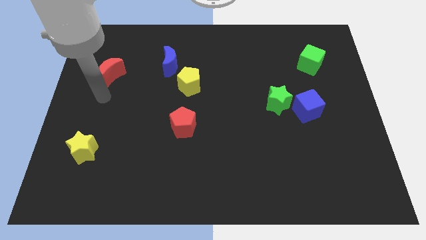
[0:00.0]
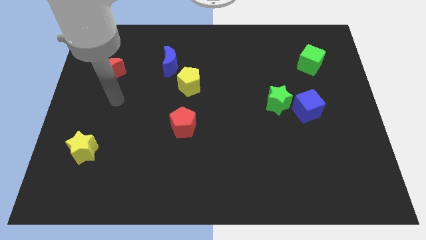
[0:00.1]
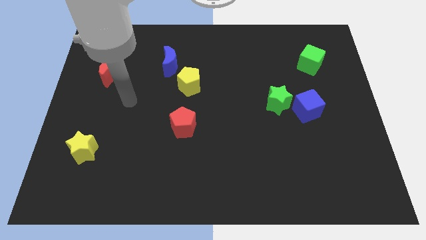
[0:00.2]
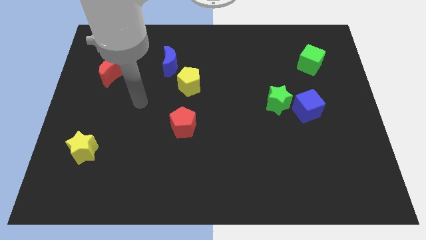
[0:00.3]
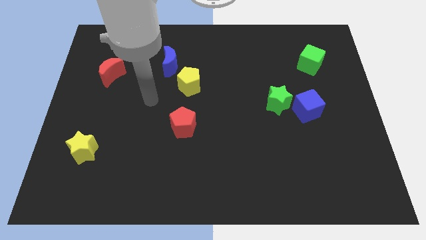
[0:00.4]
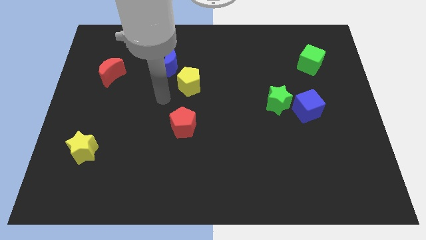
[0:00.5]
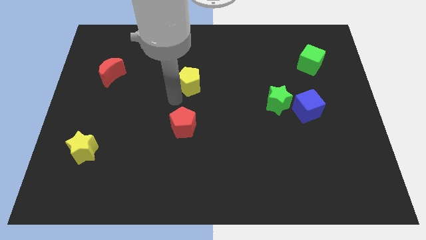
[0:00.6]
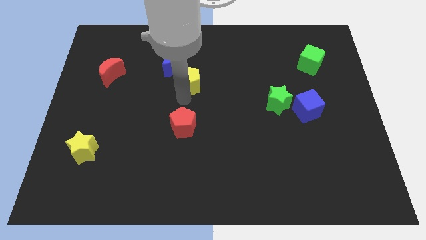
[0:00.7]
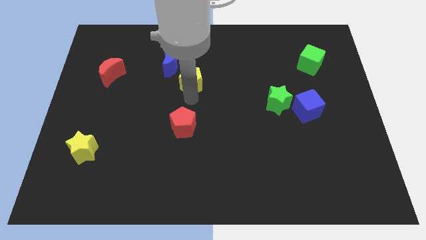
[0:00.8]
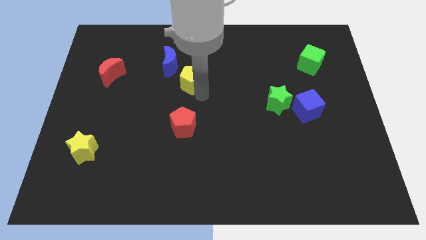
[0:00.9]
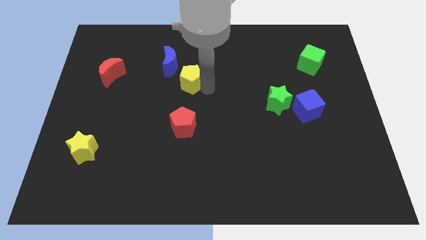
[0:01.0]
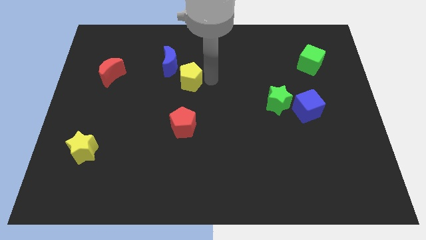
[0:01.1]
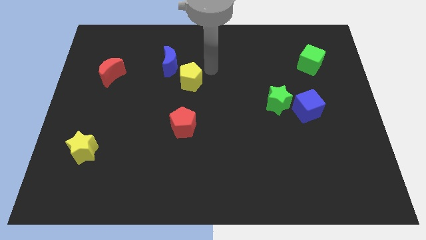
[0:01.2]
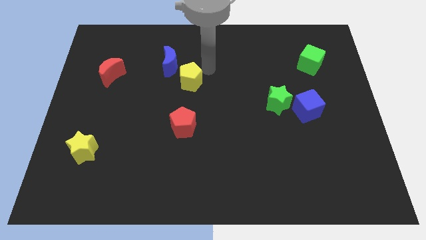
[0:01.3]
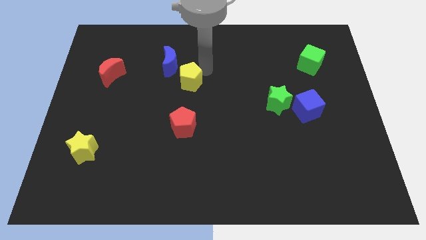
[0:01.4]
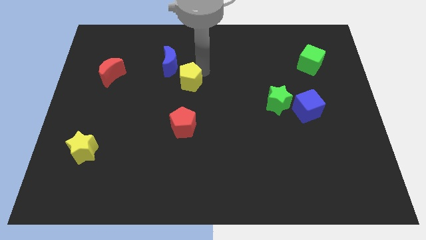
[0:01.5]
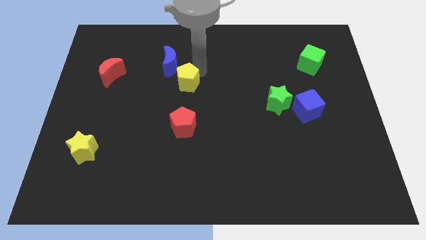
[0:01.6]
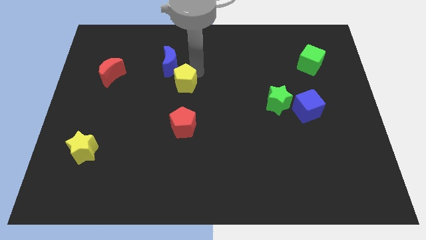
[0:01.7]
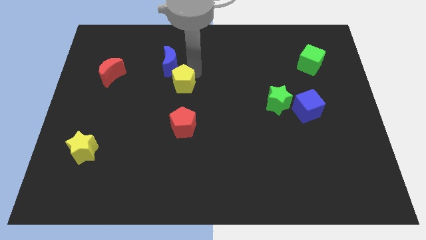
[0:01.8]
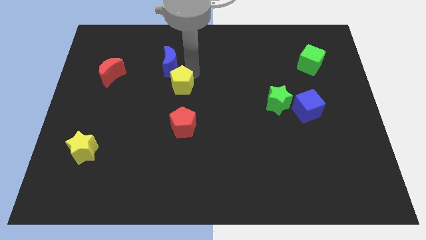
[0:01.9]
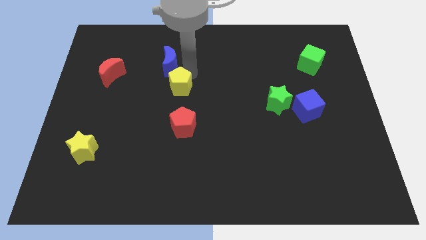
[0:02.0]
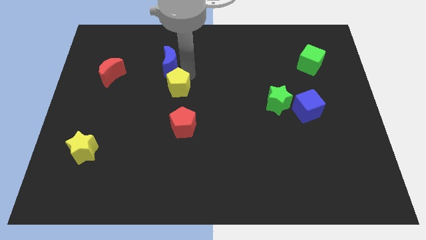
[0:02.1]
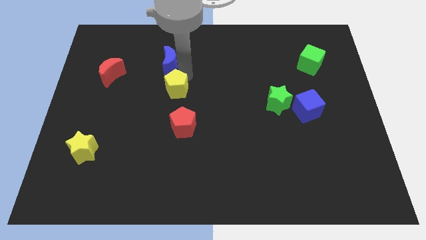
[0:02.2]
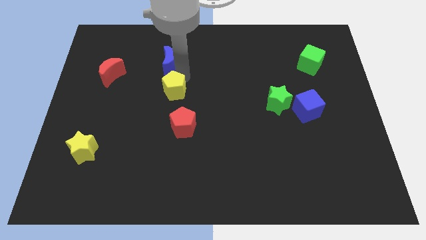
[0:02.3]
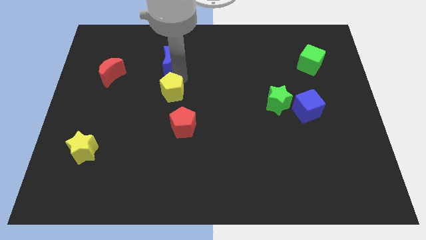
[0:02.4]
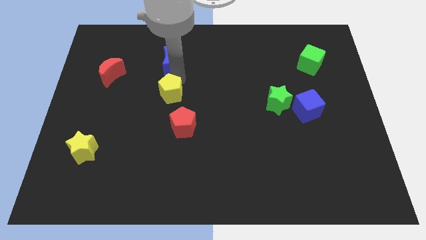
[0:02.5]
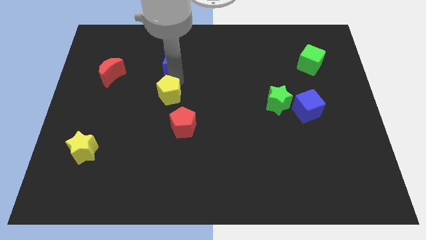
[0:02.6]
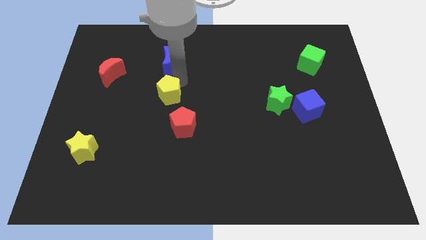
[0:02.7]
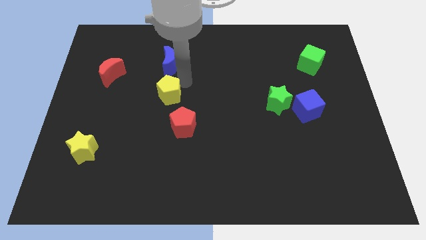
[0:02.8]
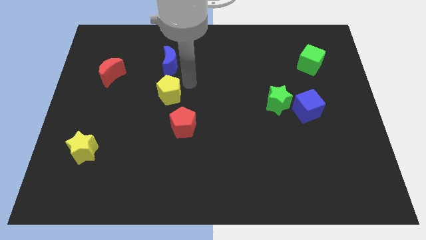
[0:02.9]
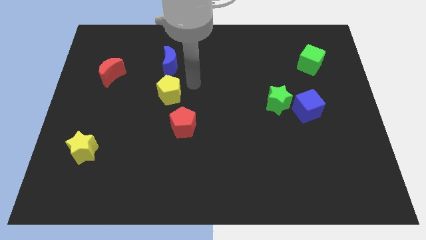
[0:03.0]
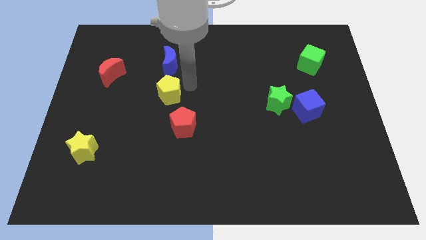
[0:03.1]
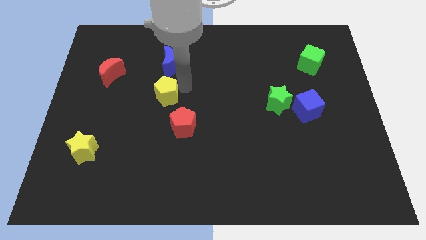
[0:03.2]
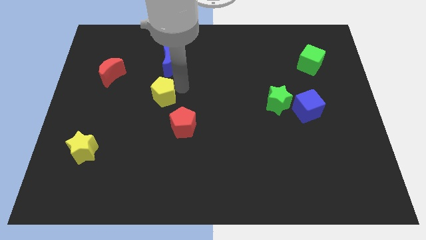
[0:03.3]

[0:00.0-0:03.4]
slightly slide the yellow pentagon diagonally down and to the left

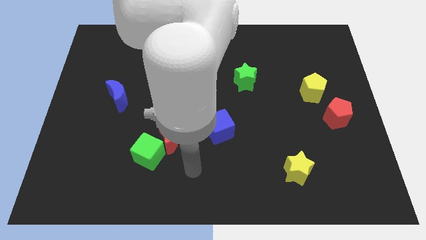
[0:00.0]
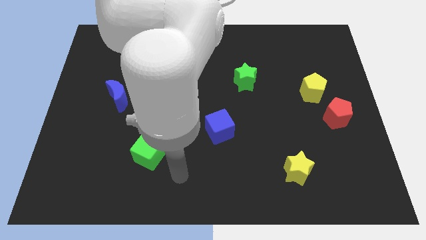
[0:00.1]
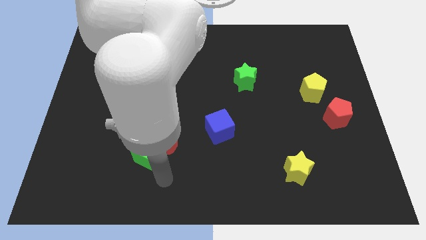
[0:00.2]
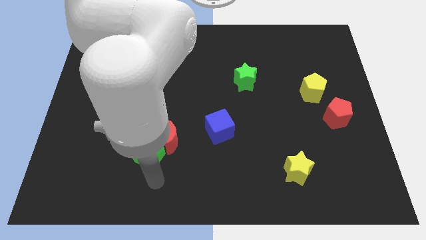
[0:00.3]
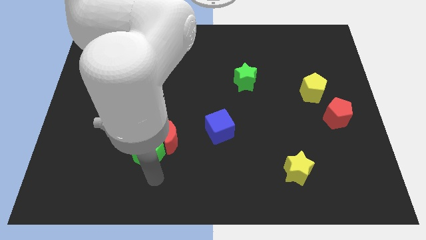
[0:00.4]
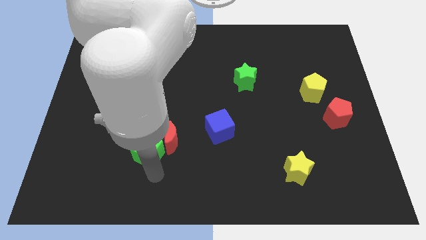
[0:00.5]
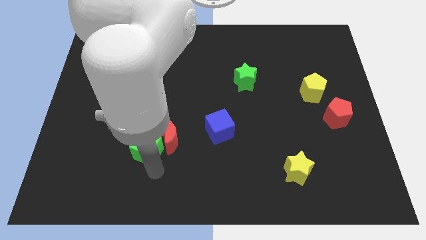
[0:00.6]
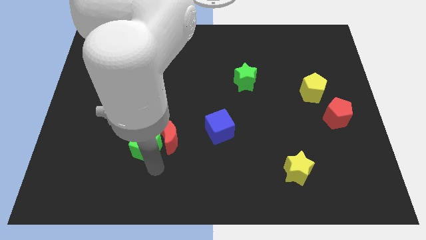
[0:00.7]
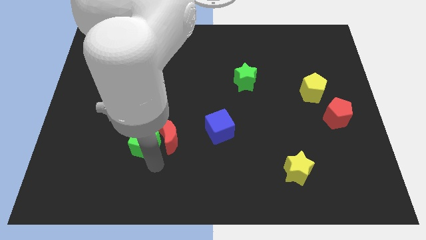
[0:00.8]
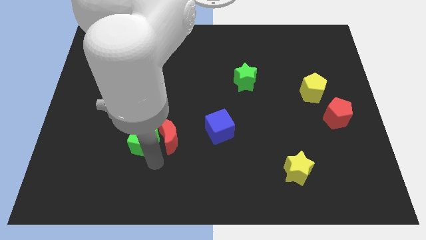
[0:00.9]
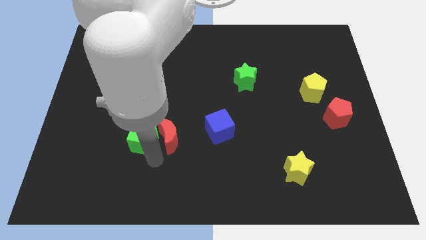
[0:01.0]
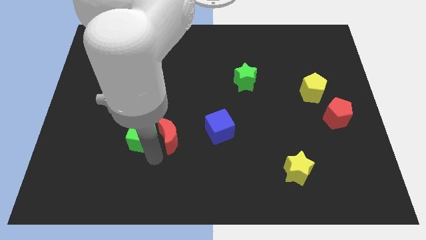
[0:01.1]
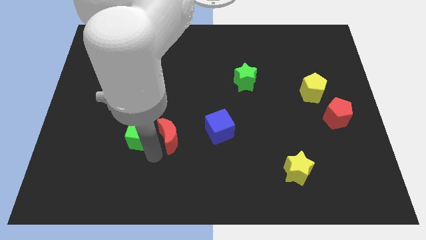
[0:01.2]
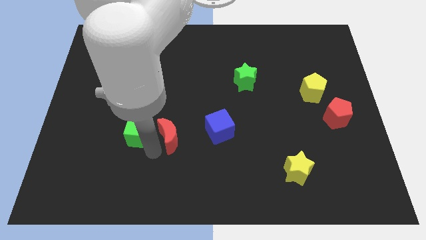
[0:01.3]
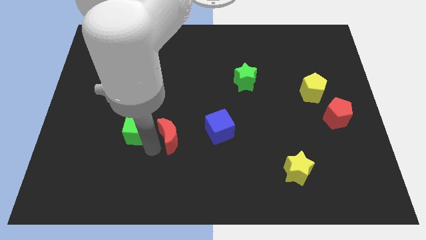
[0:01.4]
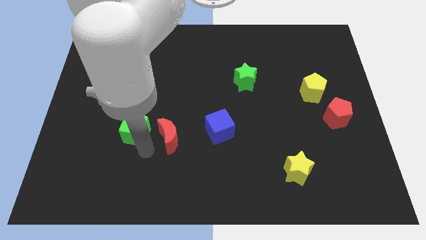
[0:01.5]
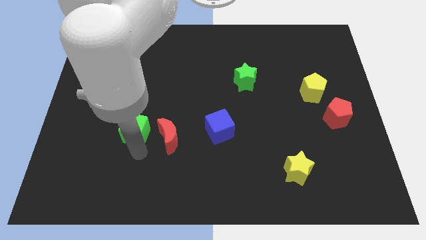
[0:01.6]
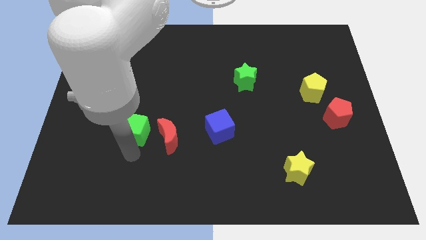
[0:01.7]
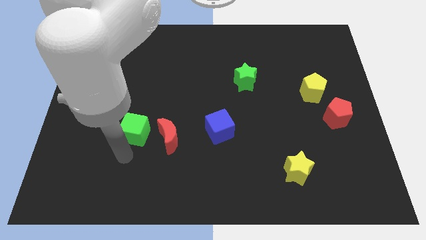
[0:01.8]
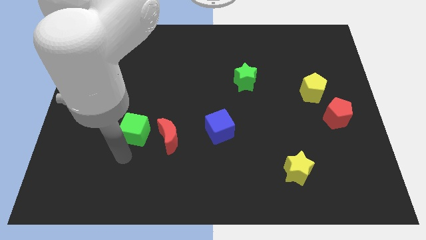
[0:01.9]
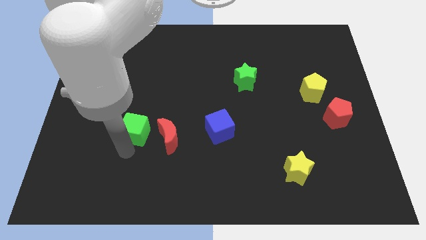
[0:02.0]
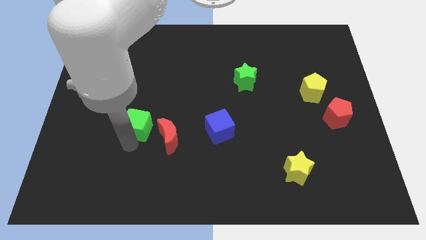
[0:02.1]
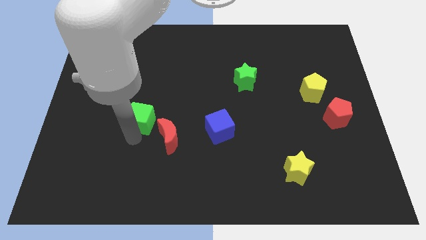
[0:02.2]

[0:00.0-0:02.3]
move the green cube up a bit
